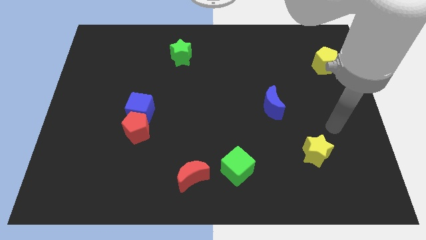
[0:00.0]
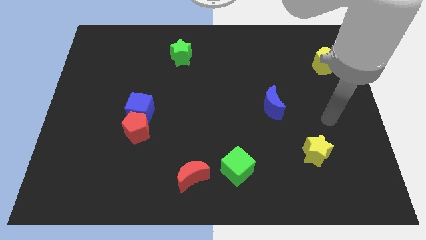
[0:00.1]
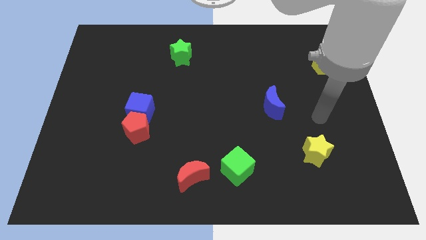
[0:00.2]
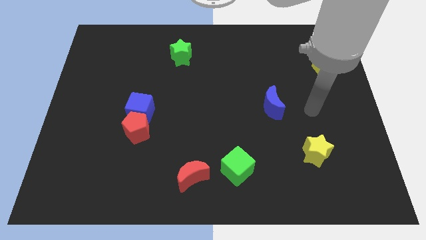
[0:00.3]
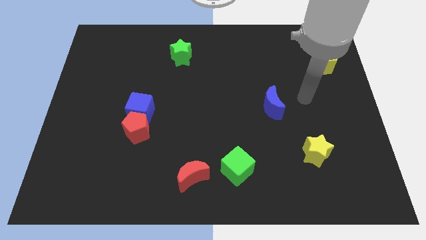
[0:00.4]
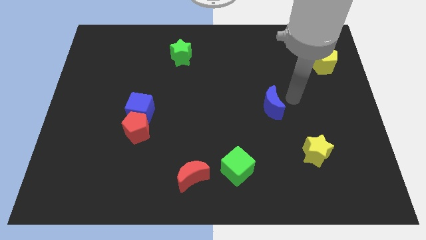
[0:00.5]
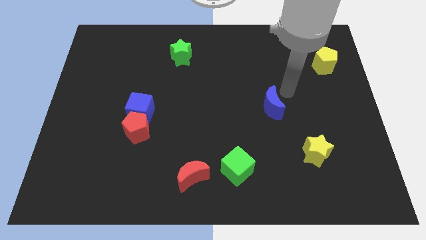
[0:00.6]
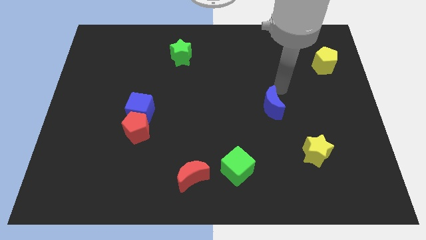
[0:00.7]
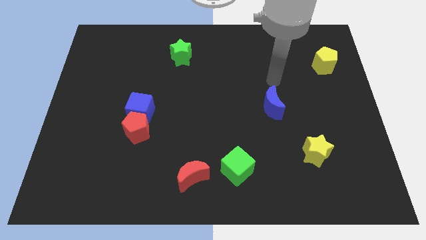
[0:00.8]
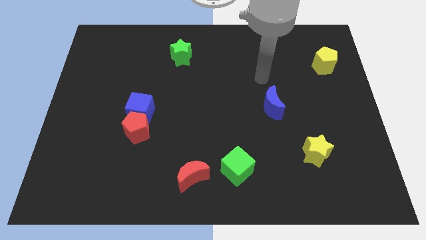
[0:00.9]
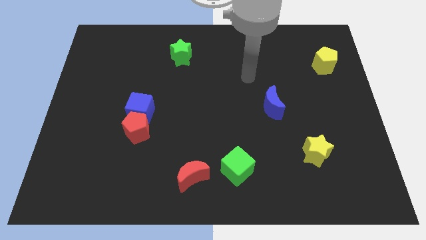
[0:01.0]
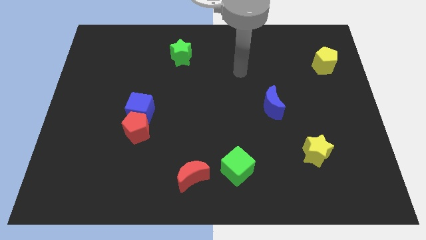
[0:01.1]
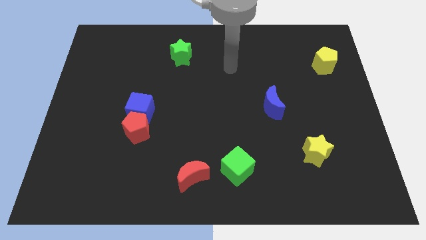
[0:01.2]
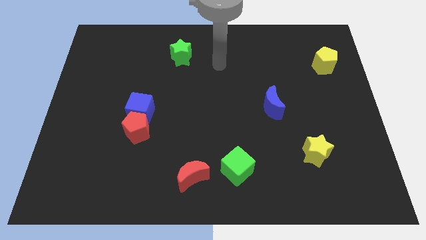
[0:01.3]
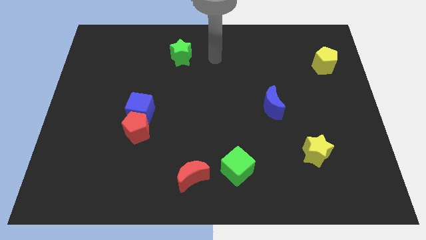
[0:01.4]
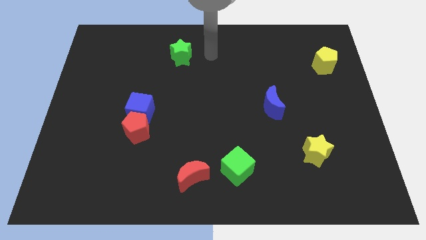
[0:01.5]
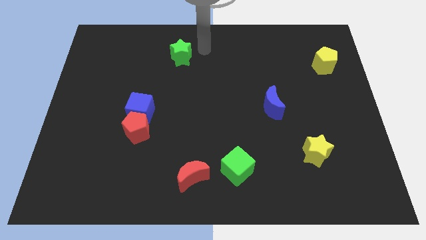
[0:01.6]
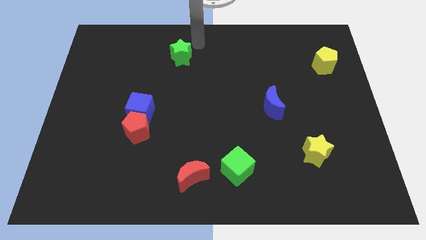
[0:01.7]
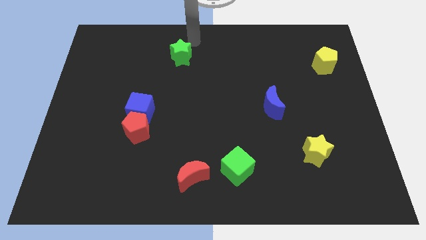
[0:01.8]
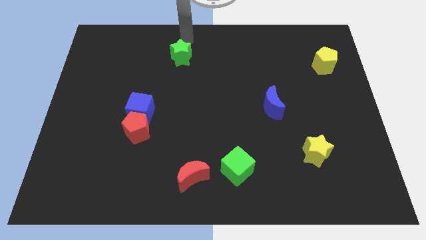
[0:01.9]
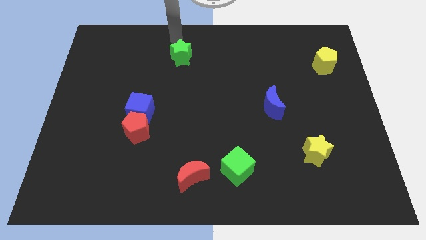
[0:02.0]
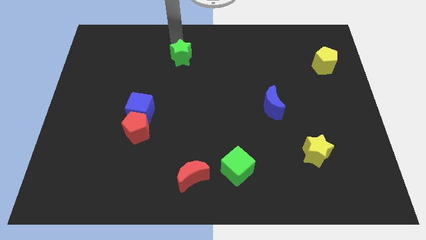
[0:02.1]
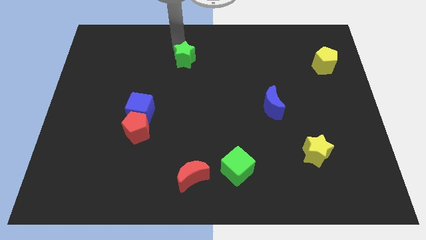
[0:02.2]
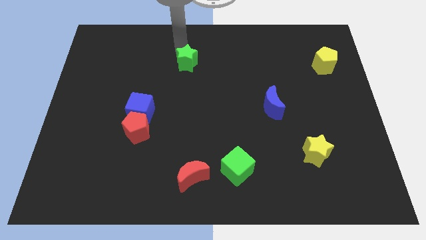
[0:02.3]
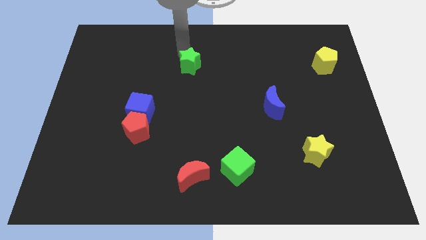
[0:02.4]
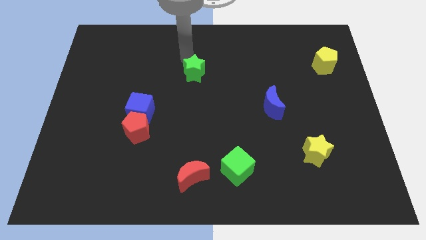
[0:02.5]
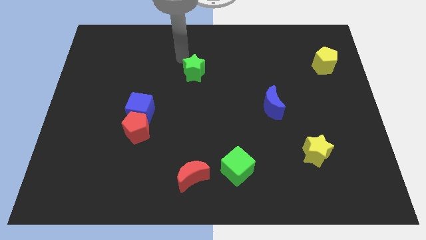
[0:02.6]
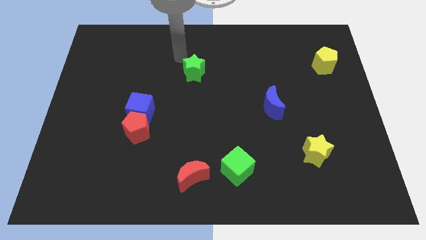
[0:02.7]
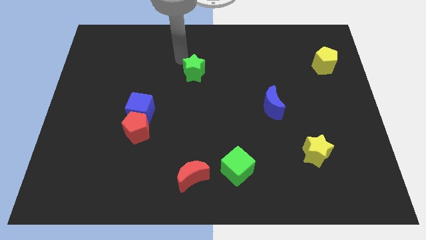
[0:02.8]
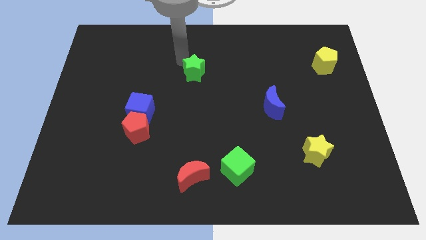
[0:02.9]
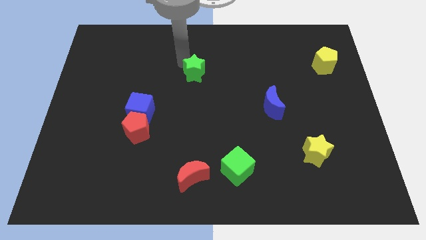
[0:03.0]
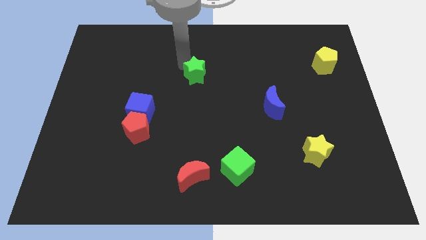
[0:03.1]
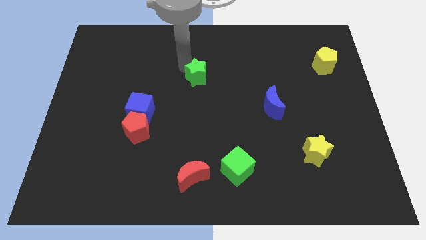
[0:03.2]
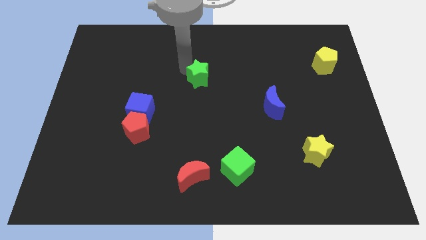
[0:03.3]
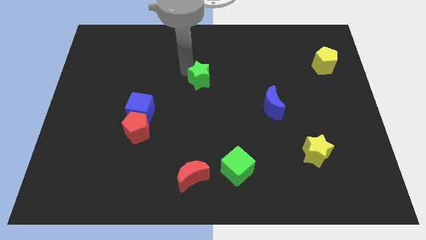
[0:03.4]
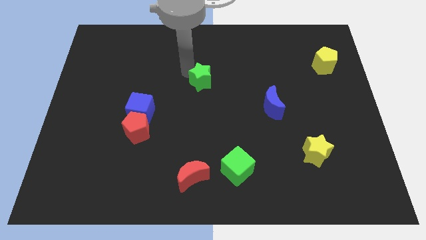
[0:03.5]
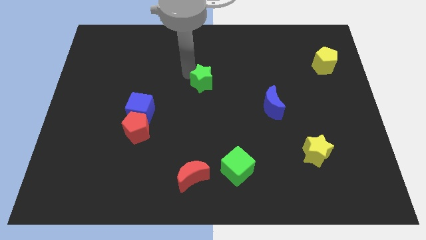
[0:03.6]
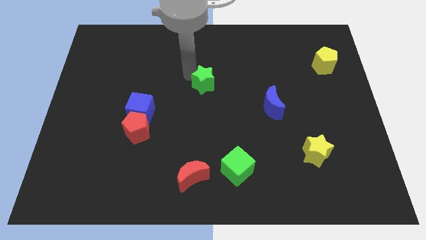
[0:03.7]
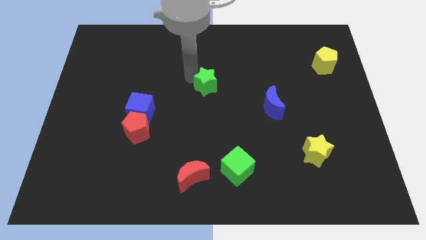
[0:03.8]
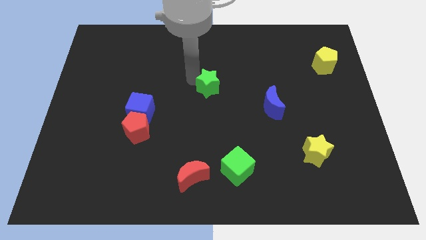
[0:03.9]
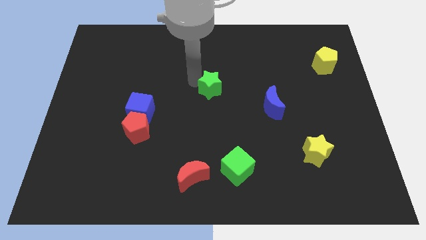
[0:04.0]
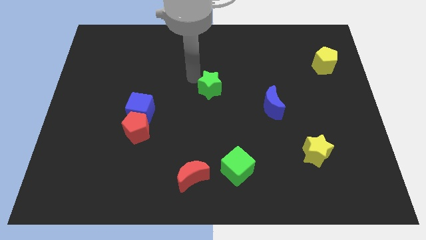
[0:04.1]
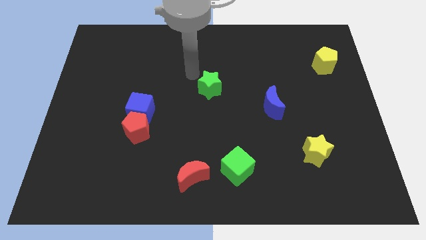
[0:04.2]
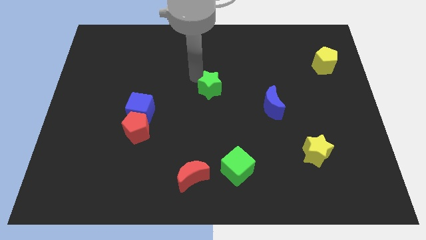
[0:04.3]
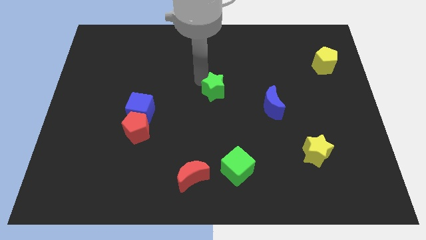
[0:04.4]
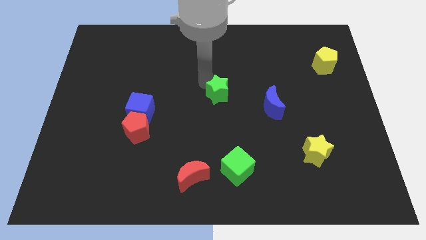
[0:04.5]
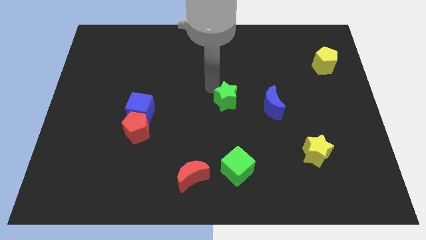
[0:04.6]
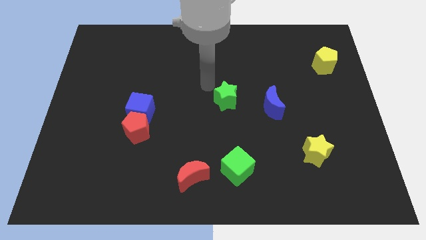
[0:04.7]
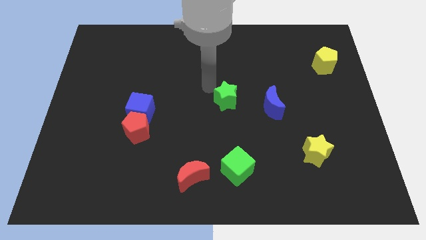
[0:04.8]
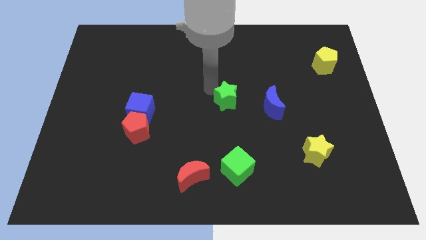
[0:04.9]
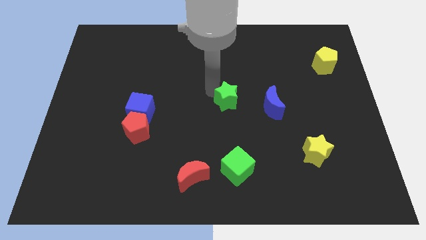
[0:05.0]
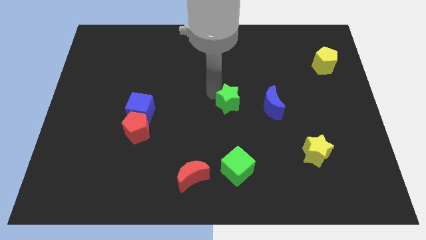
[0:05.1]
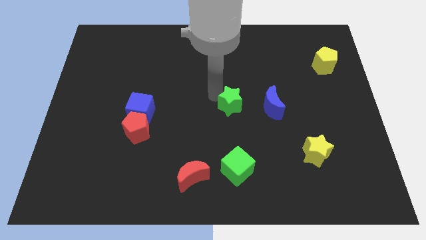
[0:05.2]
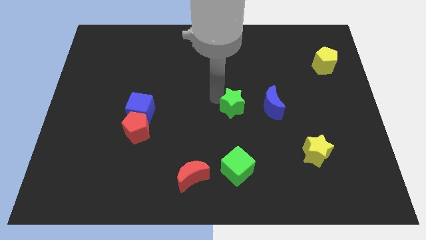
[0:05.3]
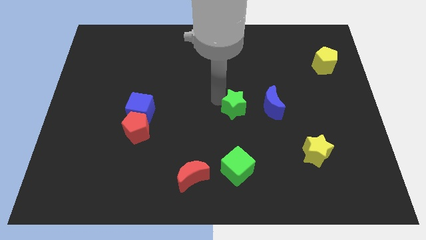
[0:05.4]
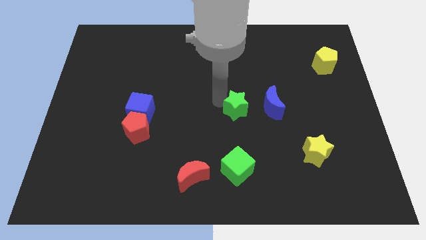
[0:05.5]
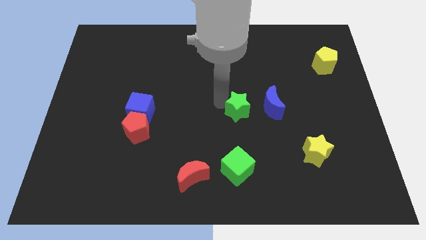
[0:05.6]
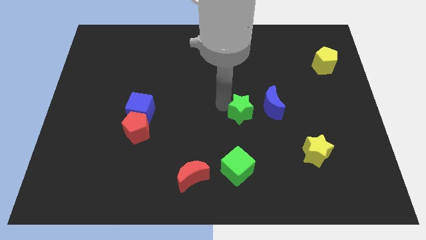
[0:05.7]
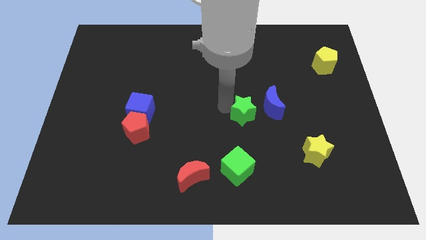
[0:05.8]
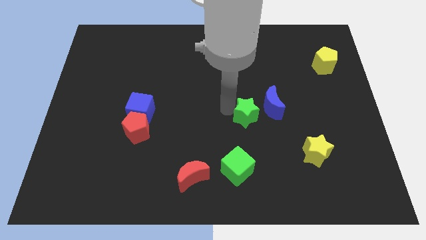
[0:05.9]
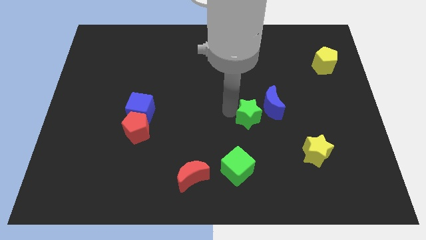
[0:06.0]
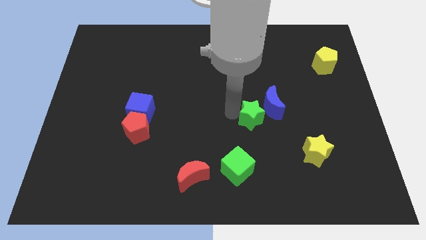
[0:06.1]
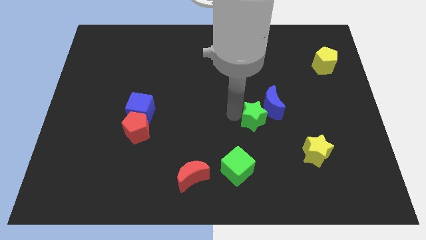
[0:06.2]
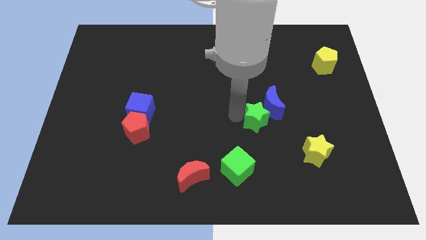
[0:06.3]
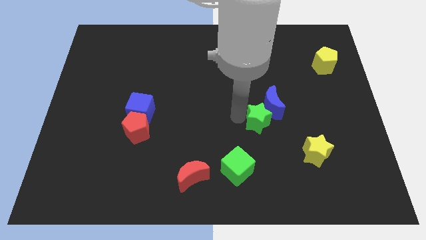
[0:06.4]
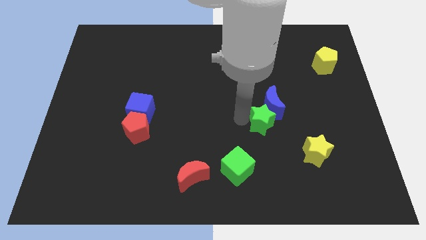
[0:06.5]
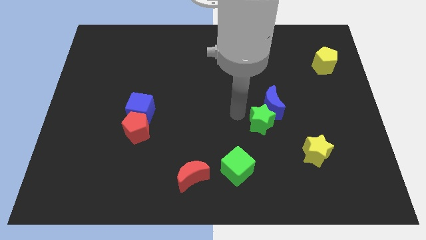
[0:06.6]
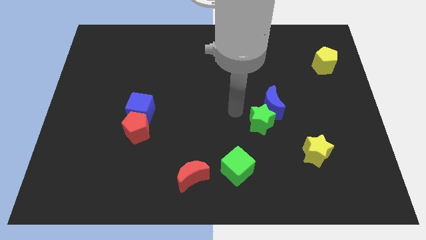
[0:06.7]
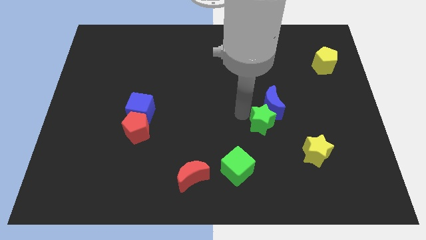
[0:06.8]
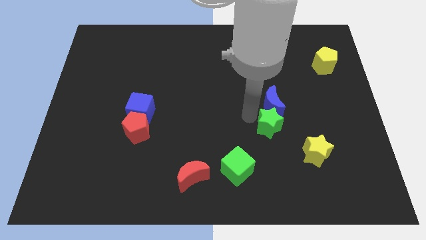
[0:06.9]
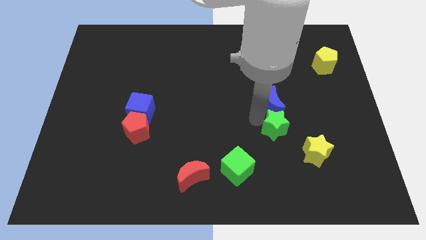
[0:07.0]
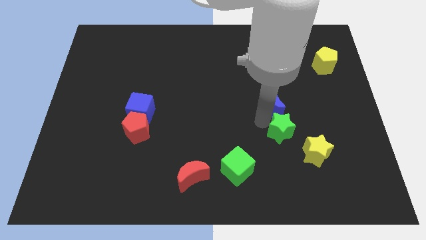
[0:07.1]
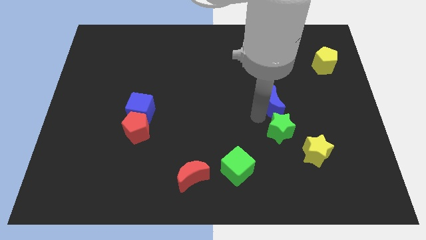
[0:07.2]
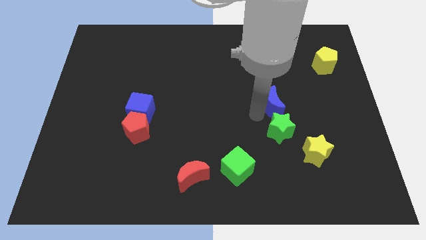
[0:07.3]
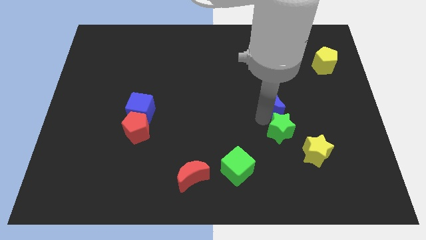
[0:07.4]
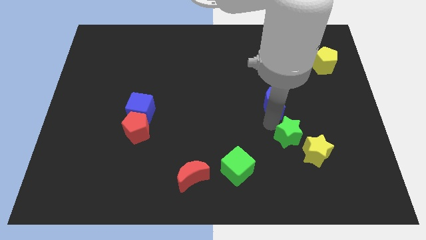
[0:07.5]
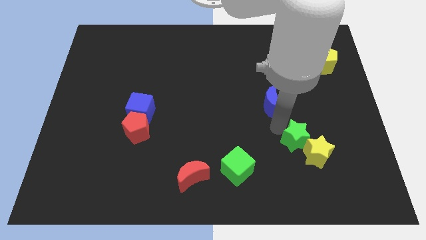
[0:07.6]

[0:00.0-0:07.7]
move the green star next to the yellow star
